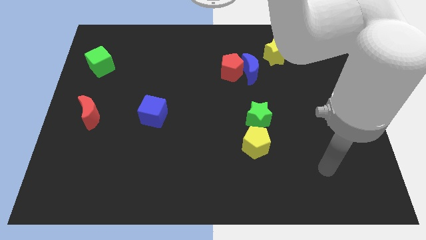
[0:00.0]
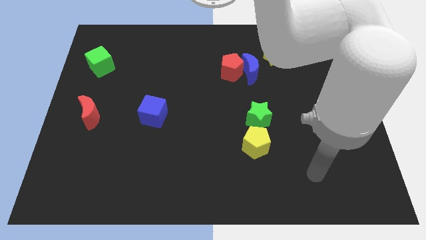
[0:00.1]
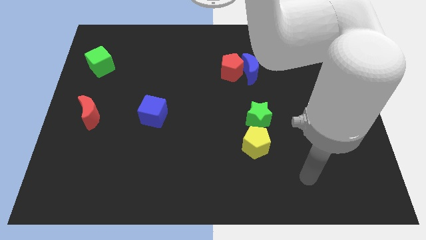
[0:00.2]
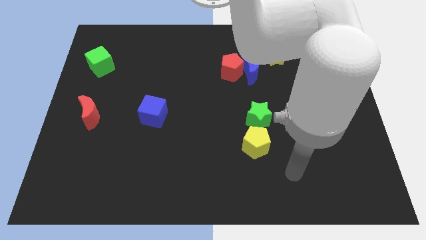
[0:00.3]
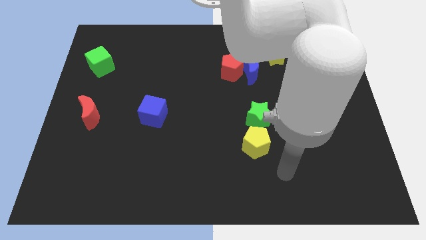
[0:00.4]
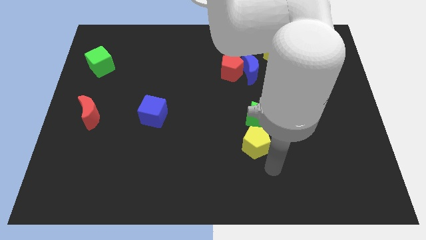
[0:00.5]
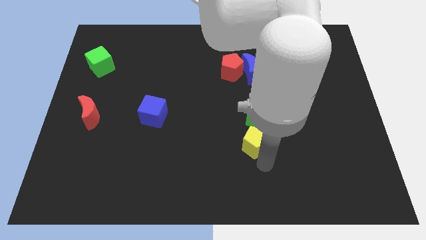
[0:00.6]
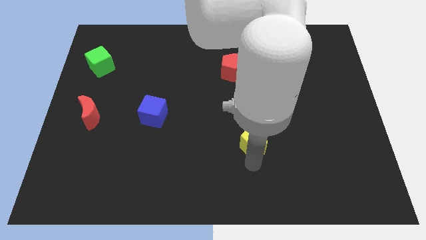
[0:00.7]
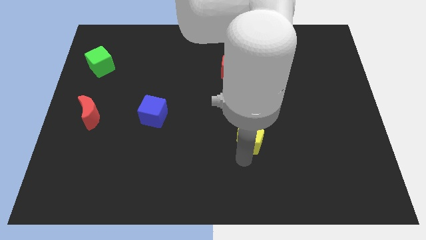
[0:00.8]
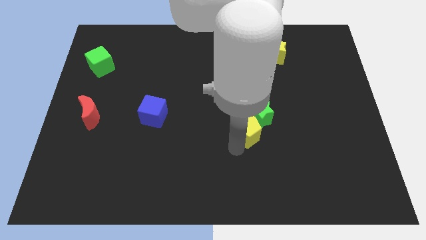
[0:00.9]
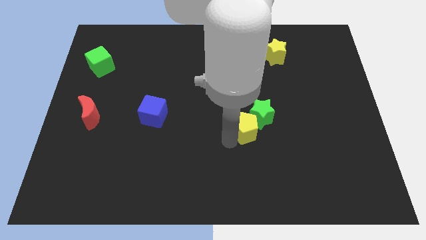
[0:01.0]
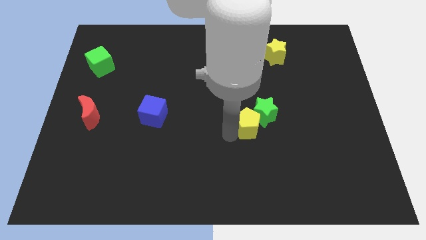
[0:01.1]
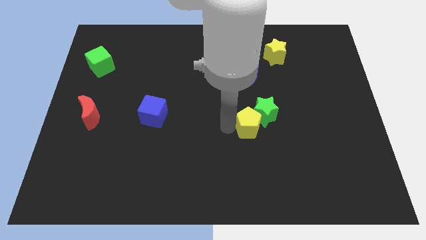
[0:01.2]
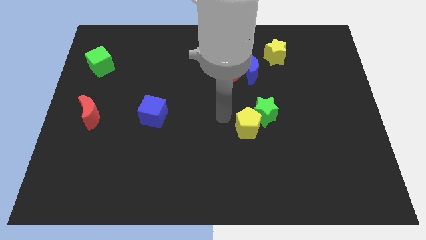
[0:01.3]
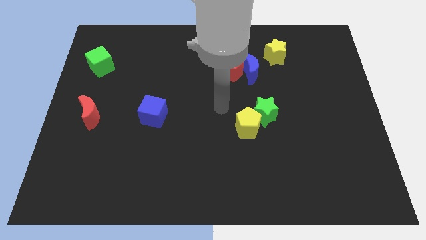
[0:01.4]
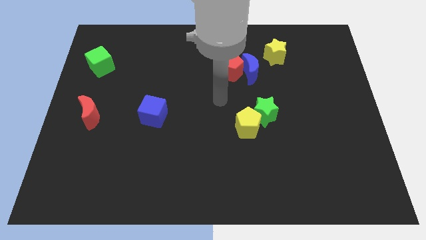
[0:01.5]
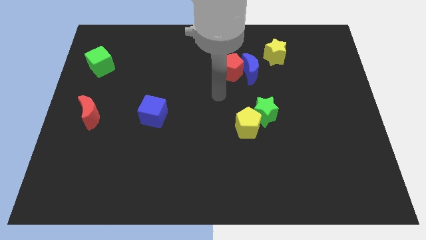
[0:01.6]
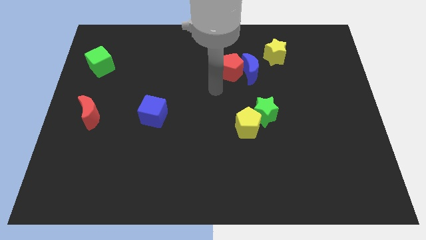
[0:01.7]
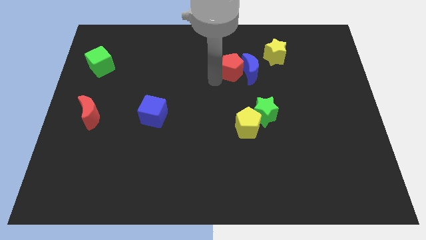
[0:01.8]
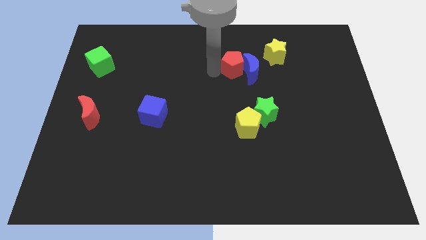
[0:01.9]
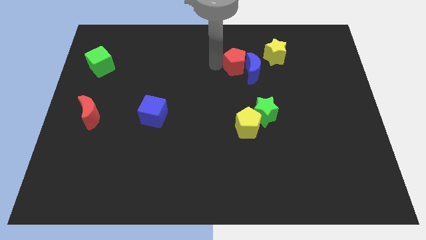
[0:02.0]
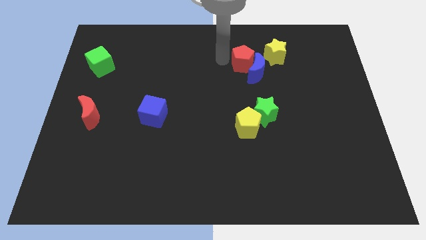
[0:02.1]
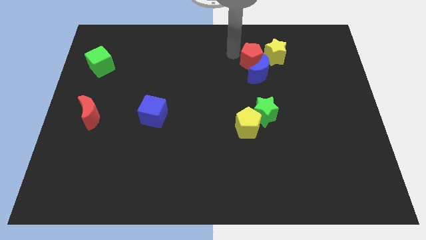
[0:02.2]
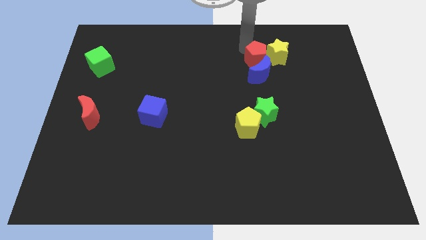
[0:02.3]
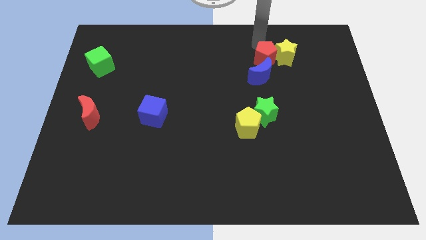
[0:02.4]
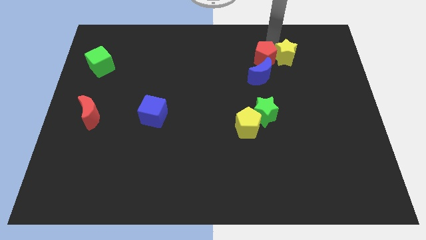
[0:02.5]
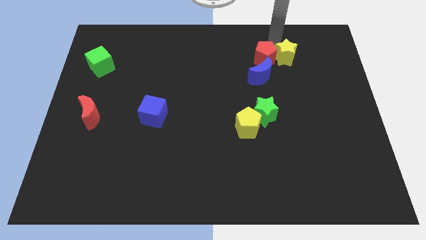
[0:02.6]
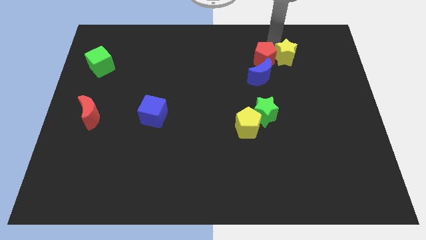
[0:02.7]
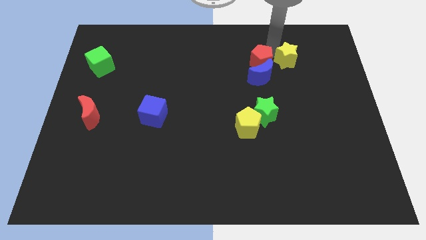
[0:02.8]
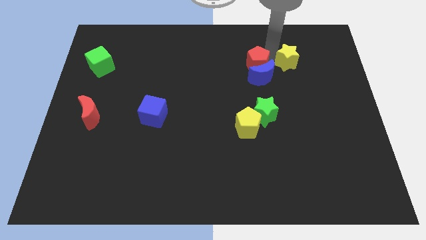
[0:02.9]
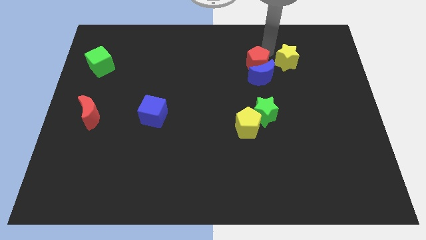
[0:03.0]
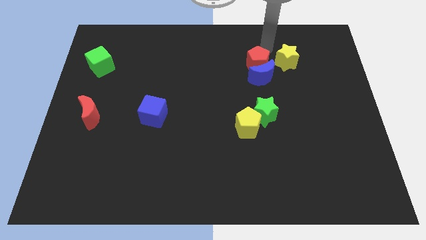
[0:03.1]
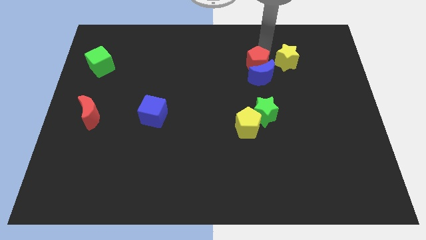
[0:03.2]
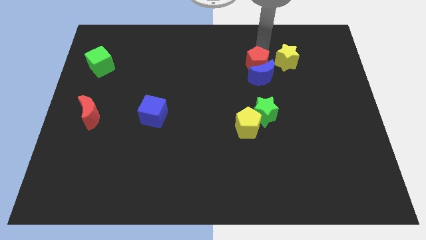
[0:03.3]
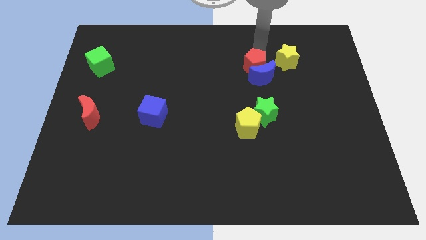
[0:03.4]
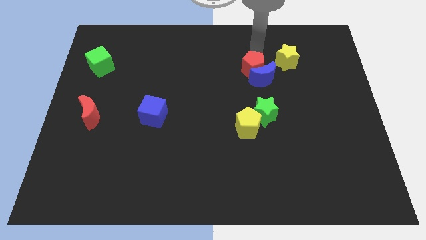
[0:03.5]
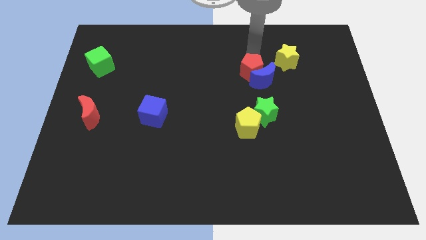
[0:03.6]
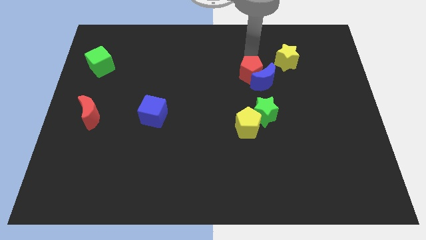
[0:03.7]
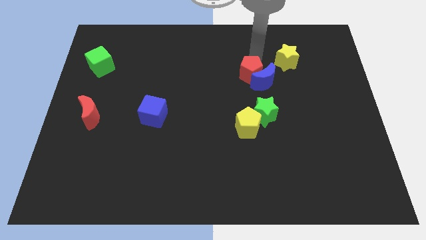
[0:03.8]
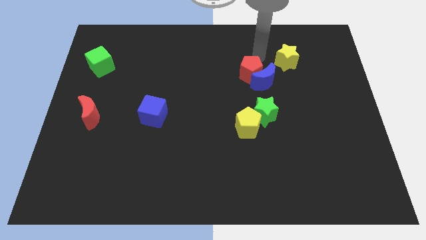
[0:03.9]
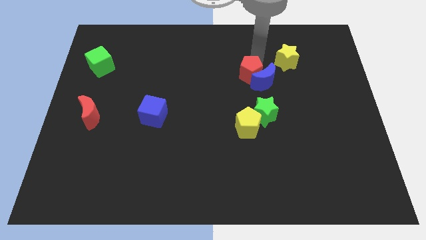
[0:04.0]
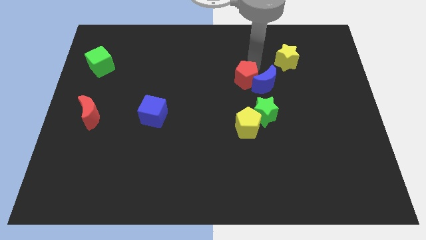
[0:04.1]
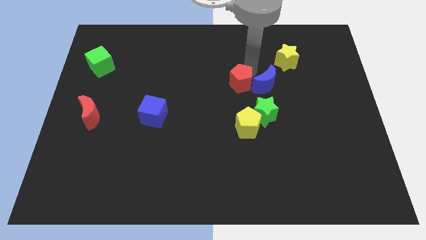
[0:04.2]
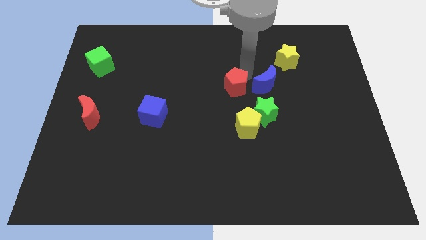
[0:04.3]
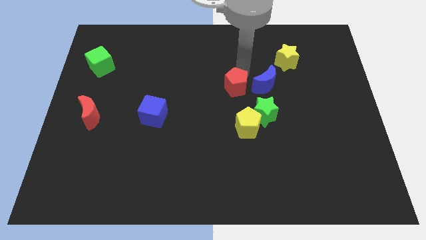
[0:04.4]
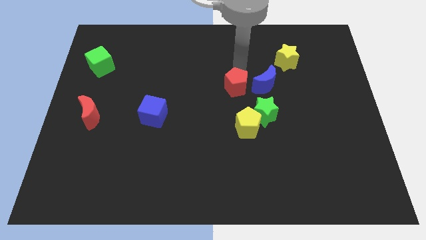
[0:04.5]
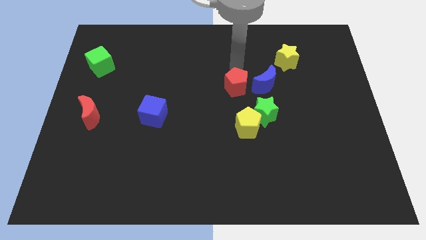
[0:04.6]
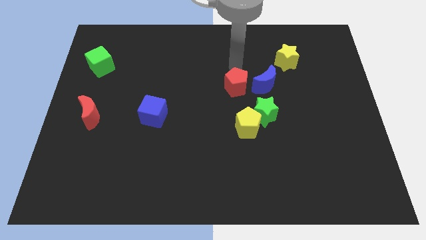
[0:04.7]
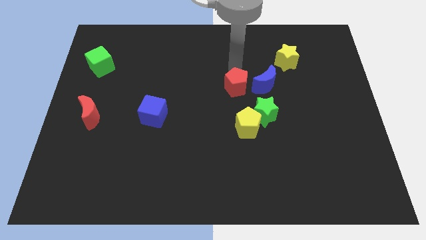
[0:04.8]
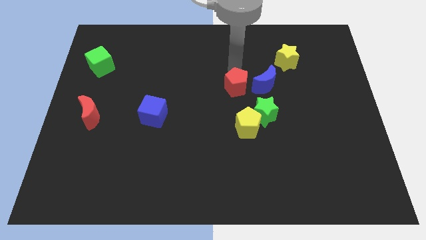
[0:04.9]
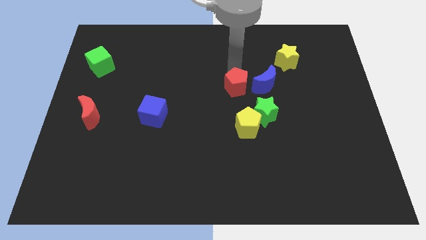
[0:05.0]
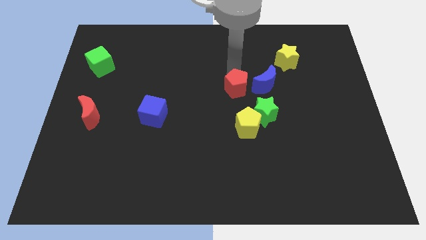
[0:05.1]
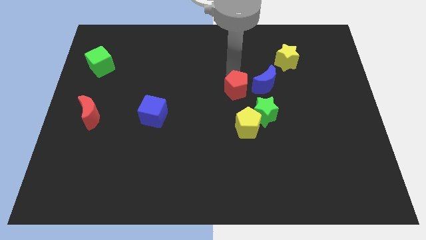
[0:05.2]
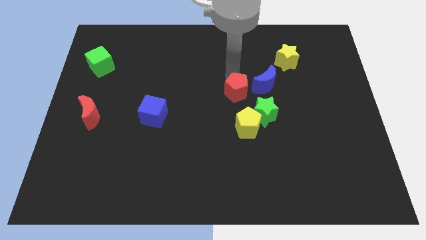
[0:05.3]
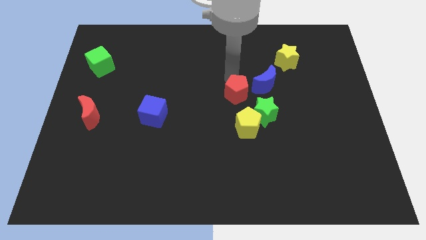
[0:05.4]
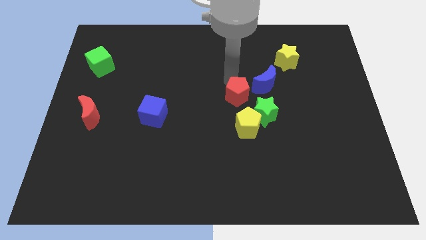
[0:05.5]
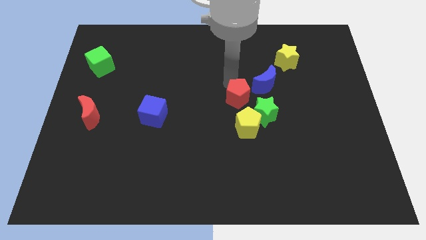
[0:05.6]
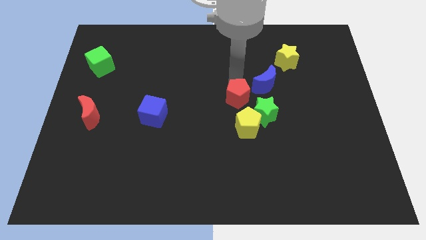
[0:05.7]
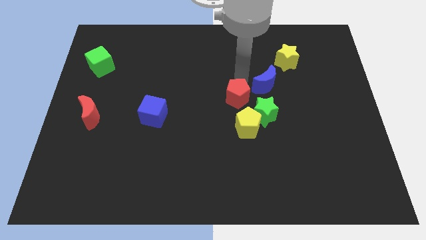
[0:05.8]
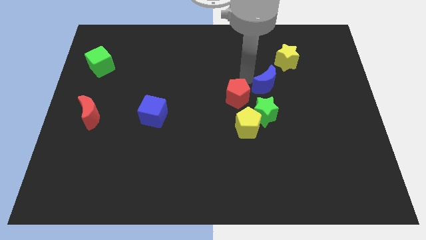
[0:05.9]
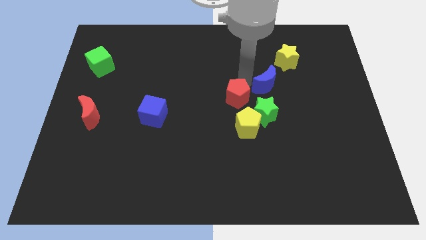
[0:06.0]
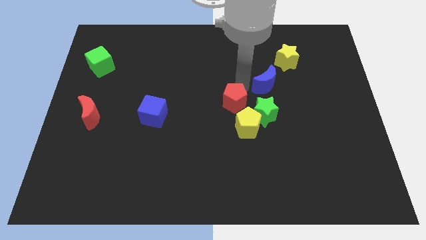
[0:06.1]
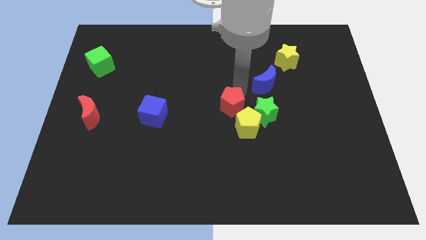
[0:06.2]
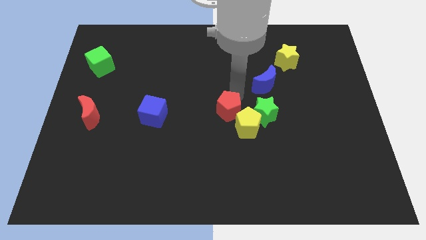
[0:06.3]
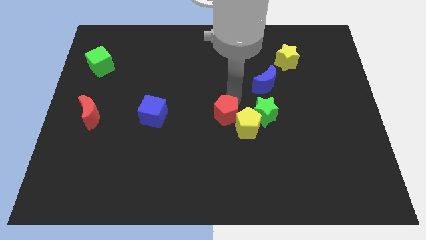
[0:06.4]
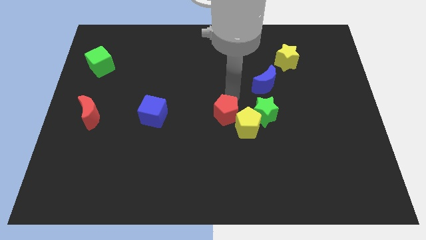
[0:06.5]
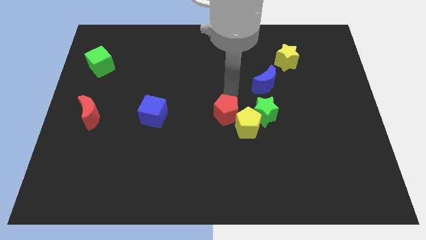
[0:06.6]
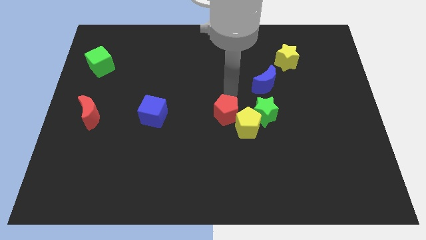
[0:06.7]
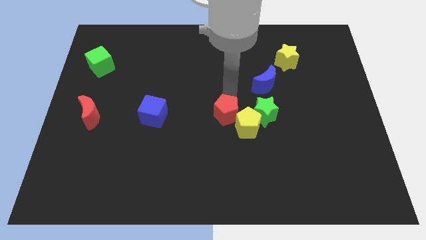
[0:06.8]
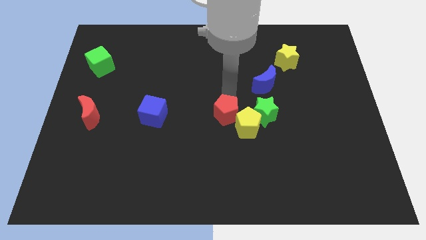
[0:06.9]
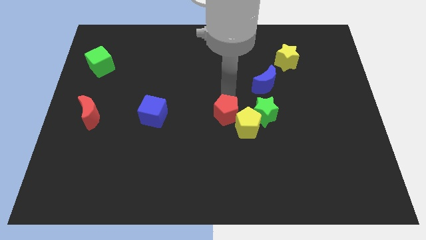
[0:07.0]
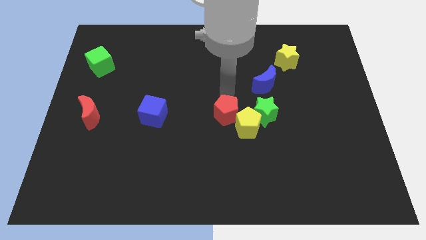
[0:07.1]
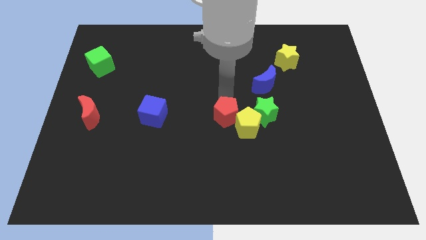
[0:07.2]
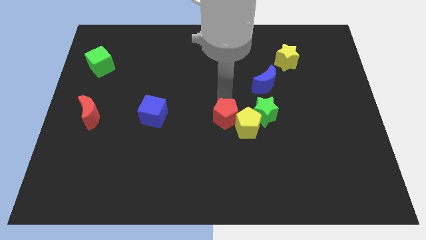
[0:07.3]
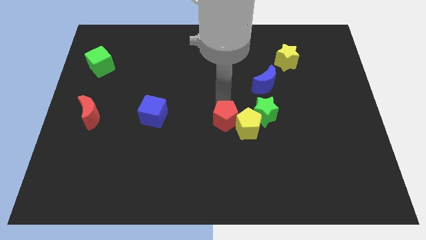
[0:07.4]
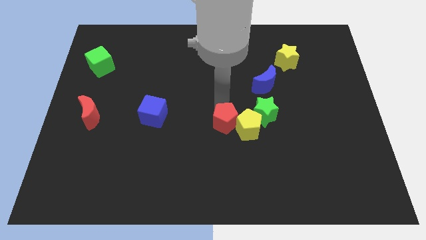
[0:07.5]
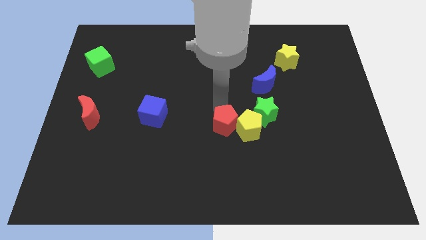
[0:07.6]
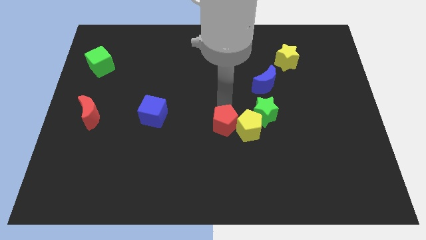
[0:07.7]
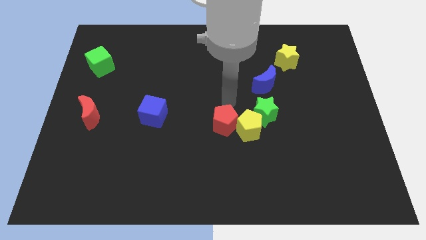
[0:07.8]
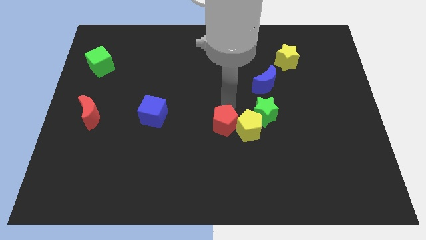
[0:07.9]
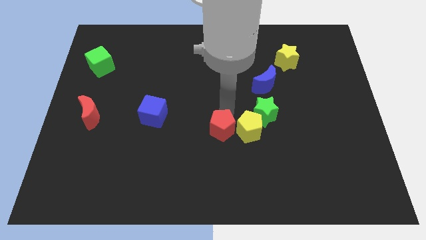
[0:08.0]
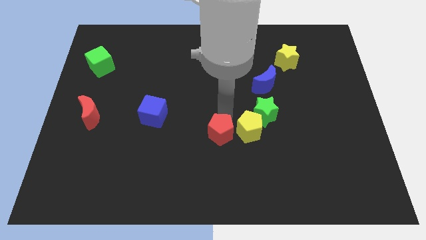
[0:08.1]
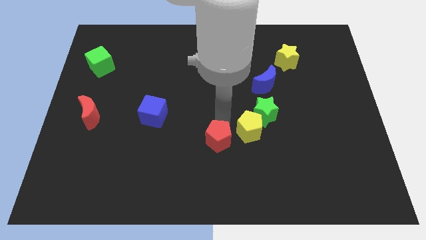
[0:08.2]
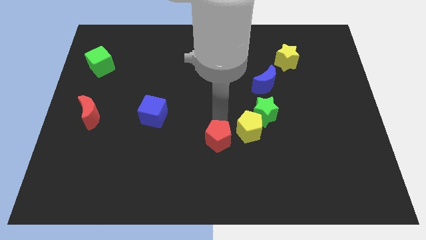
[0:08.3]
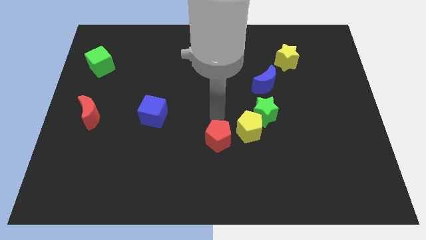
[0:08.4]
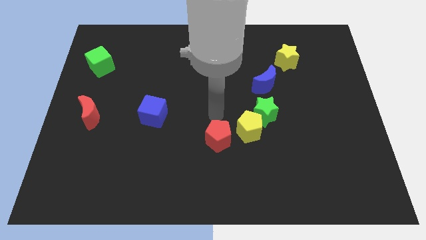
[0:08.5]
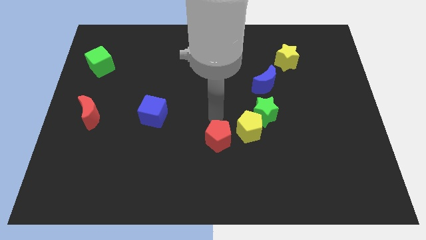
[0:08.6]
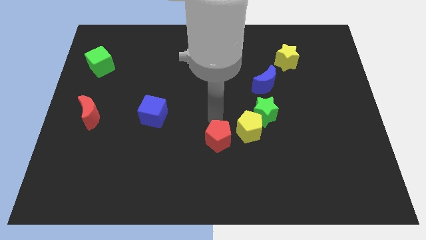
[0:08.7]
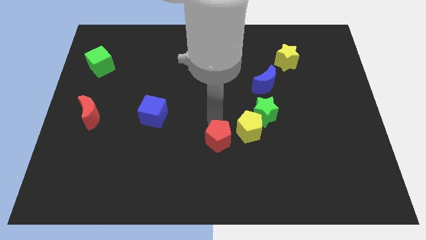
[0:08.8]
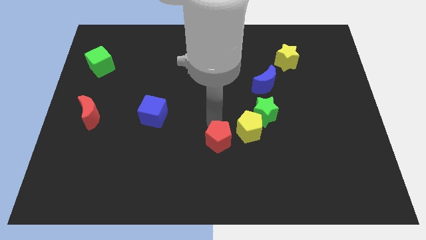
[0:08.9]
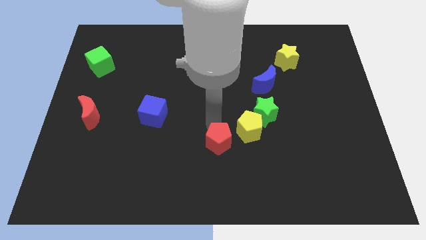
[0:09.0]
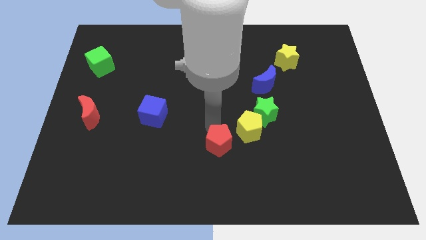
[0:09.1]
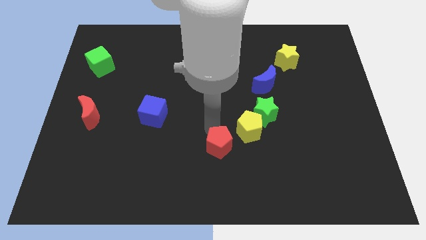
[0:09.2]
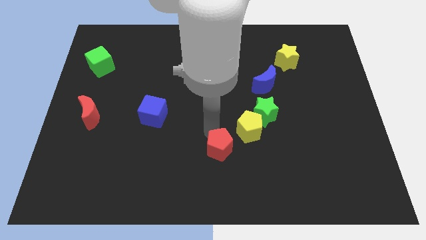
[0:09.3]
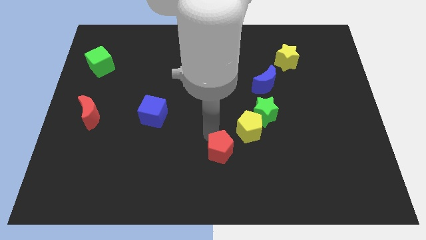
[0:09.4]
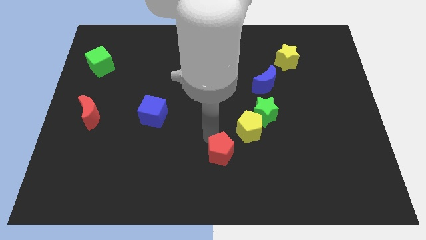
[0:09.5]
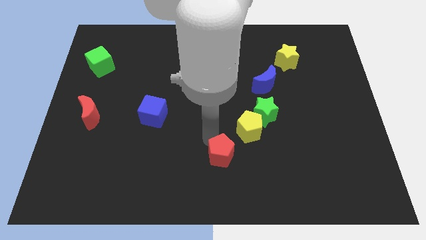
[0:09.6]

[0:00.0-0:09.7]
push the red pentagon to the bottom
